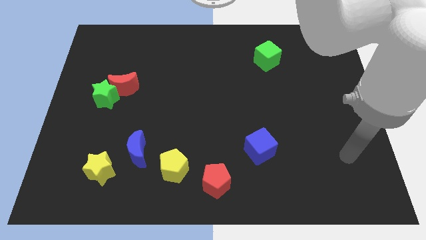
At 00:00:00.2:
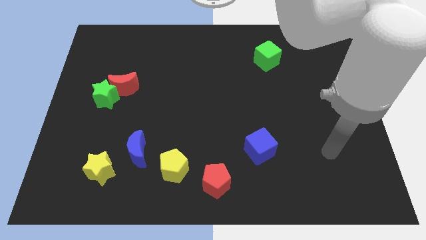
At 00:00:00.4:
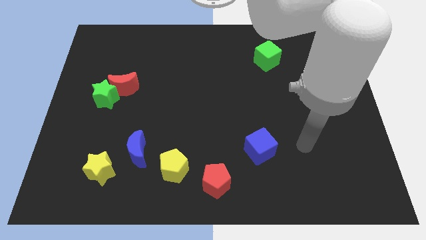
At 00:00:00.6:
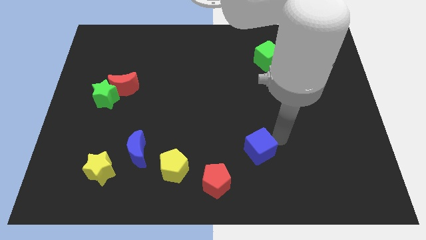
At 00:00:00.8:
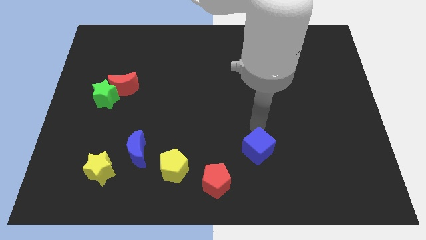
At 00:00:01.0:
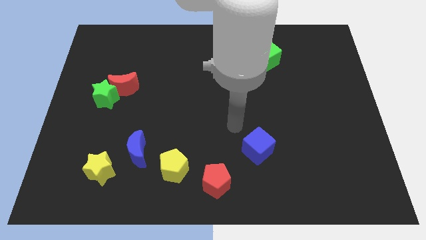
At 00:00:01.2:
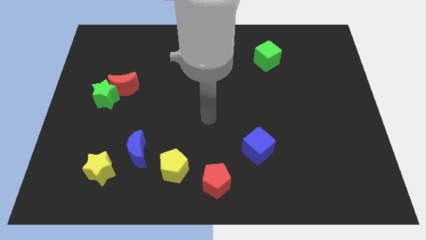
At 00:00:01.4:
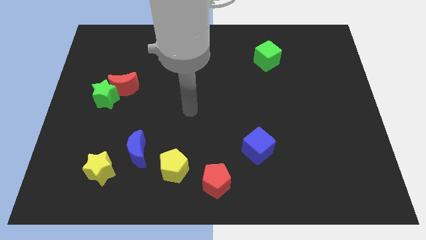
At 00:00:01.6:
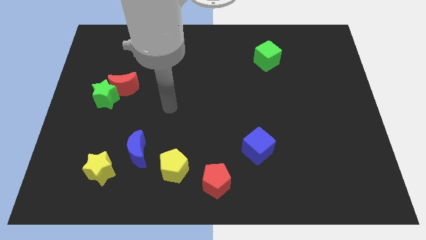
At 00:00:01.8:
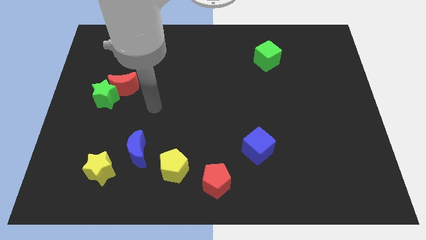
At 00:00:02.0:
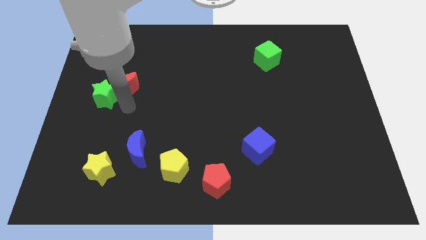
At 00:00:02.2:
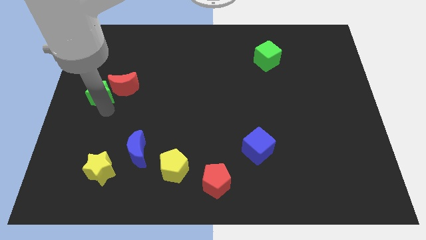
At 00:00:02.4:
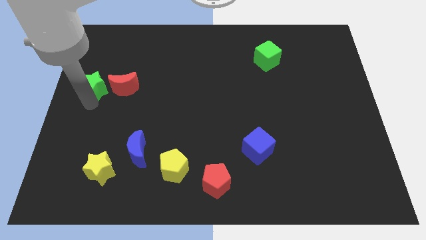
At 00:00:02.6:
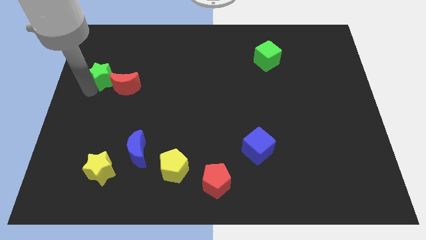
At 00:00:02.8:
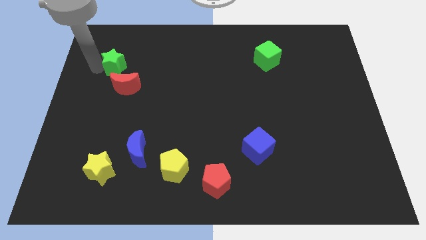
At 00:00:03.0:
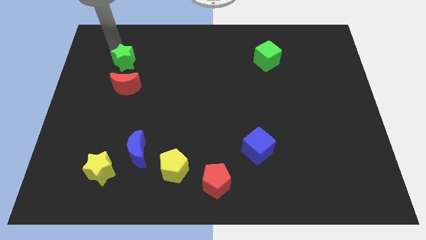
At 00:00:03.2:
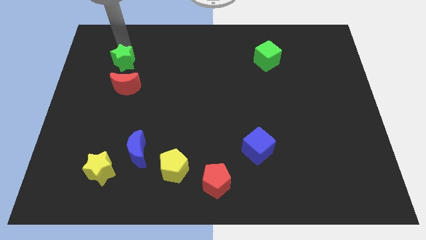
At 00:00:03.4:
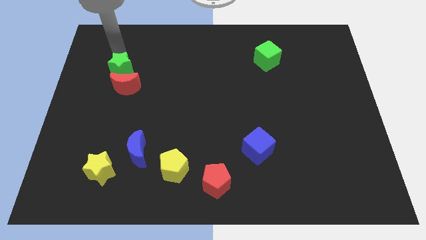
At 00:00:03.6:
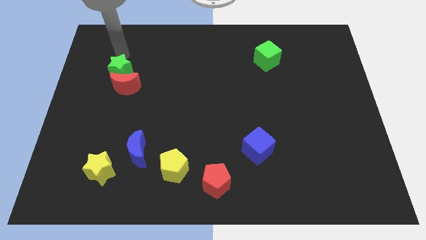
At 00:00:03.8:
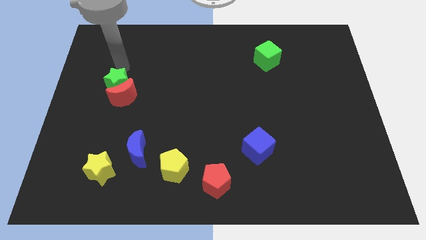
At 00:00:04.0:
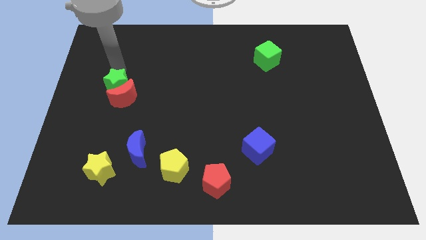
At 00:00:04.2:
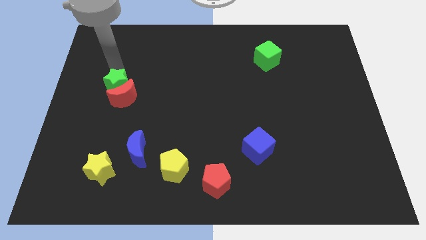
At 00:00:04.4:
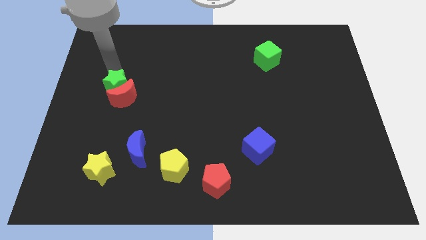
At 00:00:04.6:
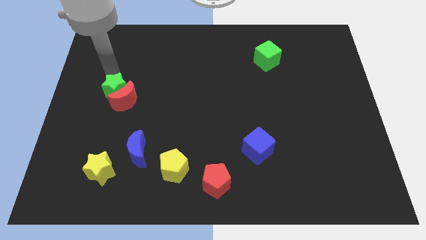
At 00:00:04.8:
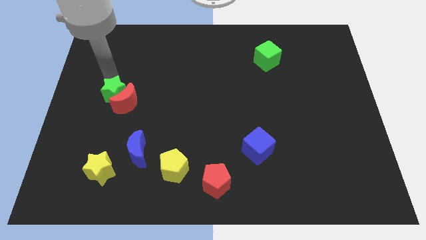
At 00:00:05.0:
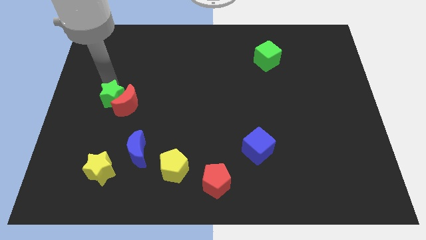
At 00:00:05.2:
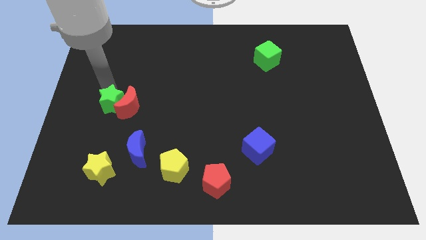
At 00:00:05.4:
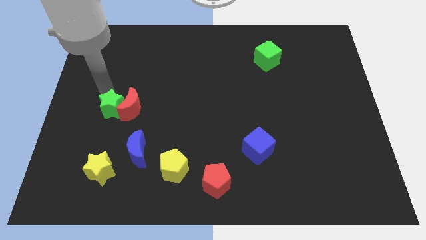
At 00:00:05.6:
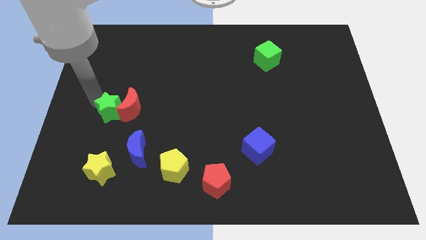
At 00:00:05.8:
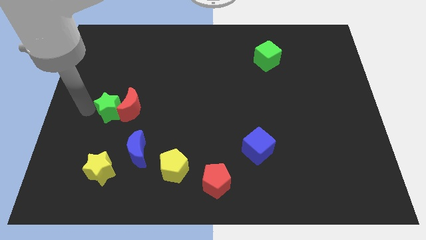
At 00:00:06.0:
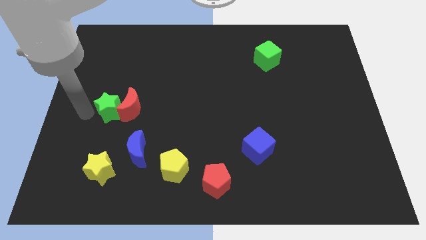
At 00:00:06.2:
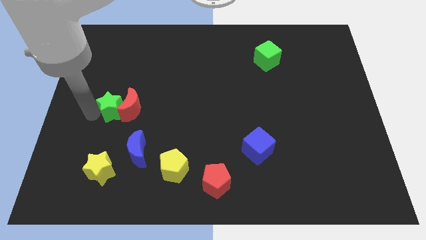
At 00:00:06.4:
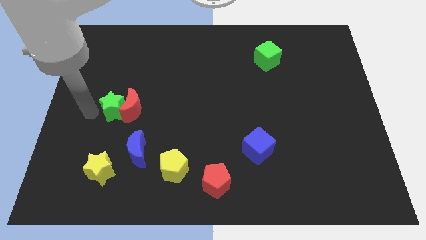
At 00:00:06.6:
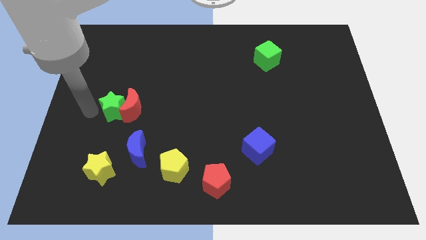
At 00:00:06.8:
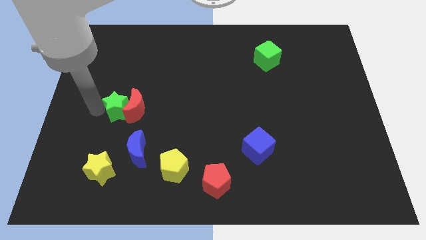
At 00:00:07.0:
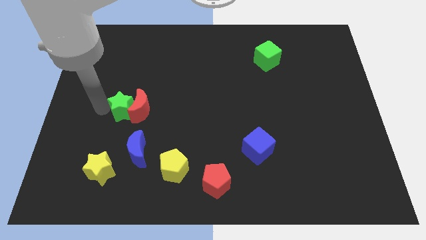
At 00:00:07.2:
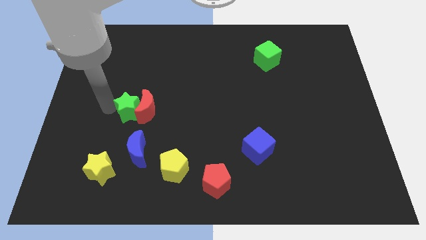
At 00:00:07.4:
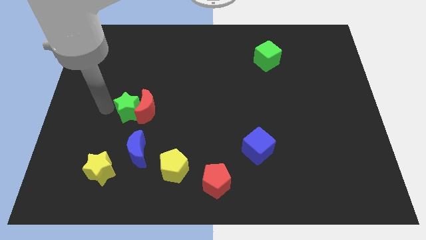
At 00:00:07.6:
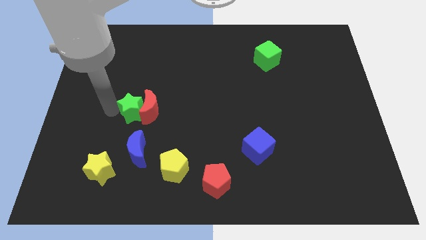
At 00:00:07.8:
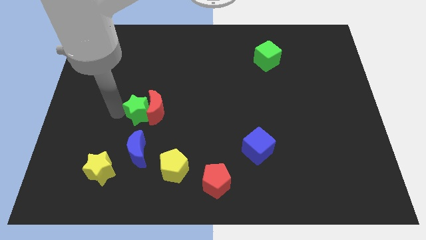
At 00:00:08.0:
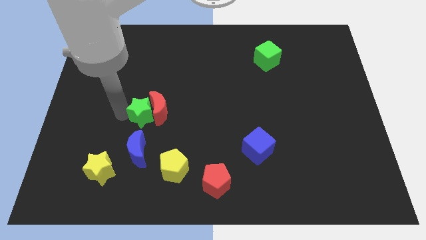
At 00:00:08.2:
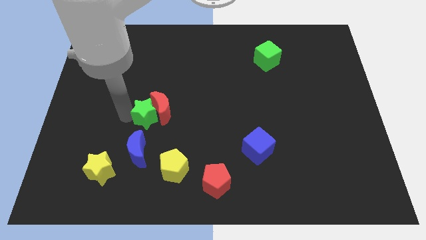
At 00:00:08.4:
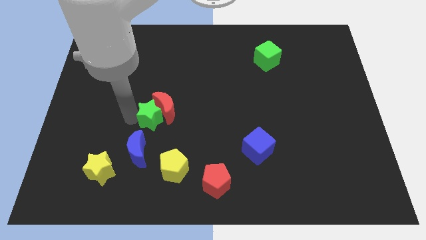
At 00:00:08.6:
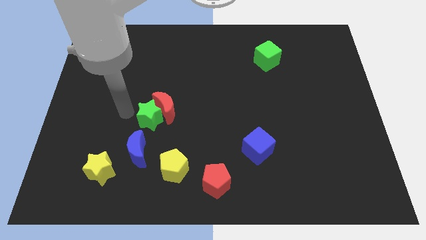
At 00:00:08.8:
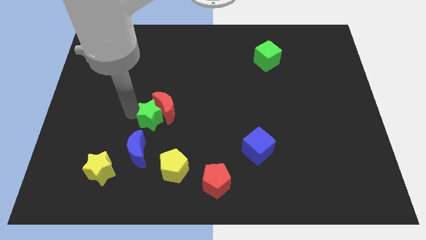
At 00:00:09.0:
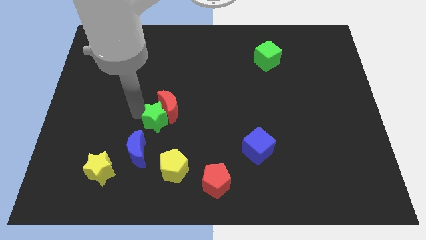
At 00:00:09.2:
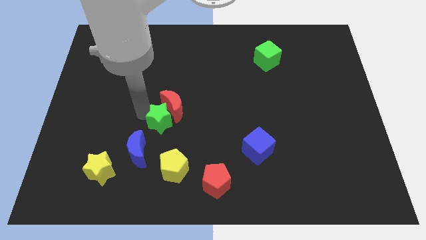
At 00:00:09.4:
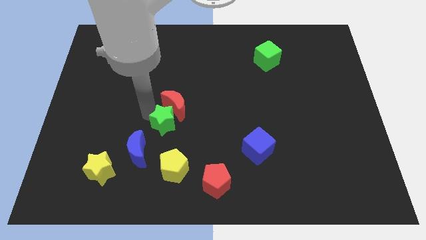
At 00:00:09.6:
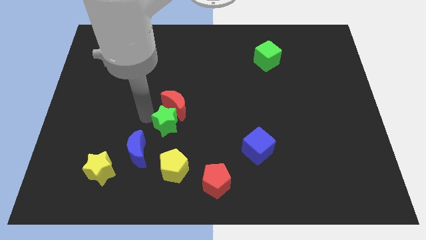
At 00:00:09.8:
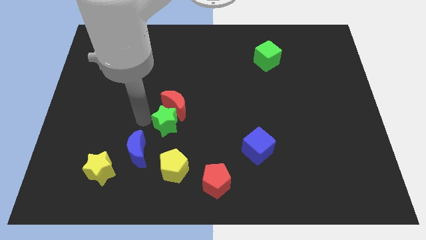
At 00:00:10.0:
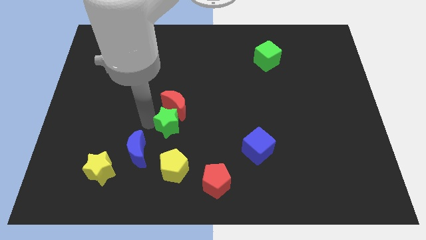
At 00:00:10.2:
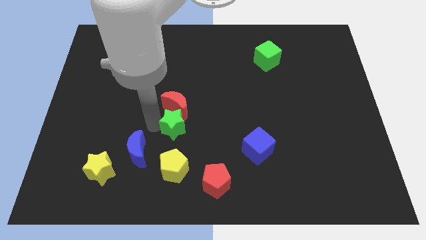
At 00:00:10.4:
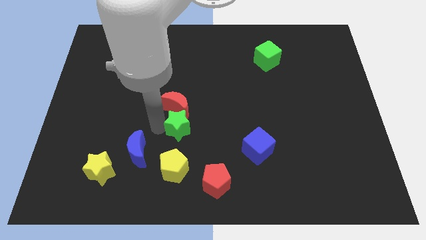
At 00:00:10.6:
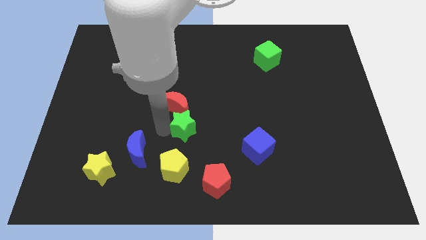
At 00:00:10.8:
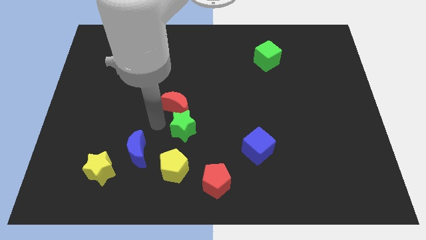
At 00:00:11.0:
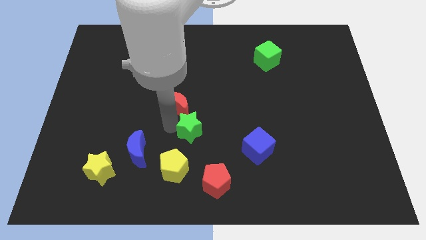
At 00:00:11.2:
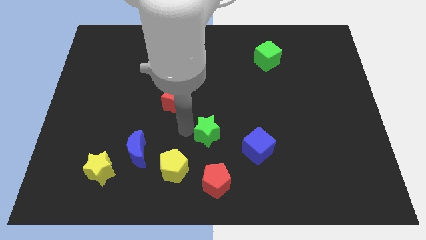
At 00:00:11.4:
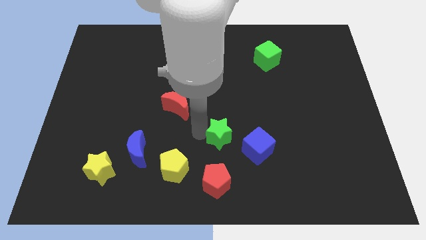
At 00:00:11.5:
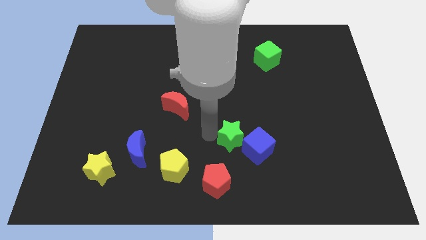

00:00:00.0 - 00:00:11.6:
slide the green star towards the blue cube
